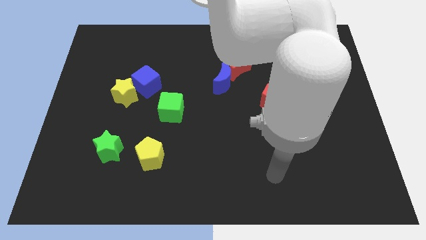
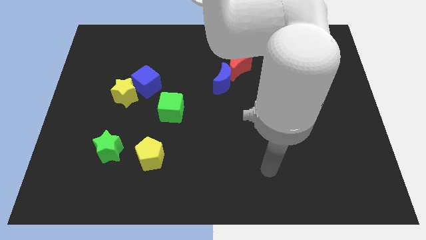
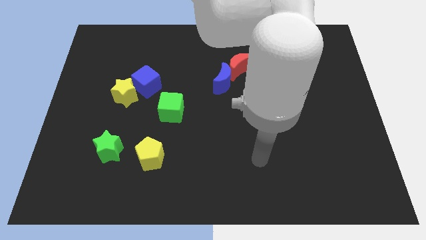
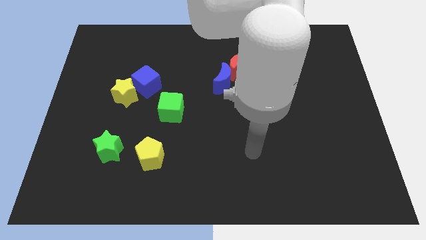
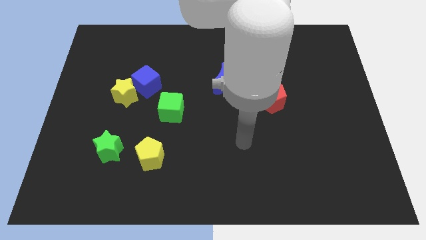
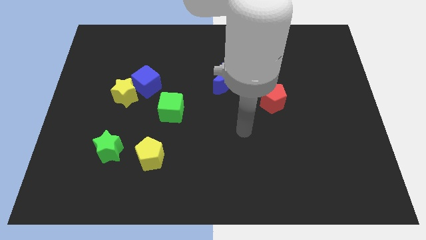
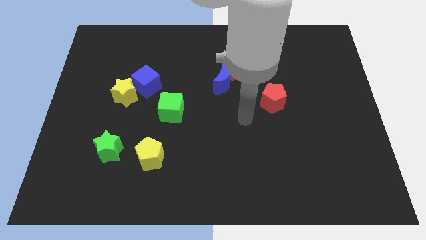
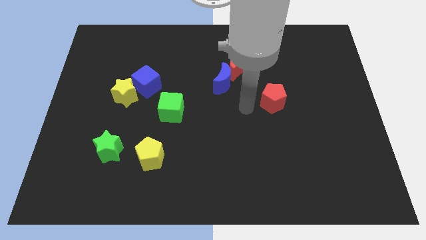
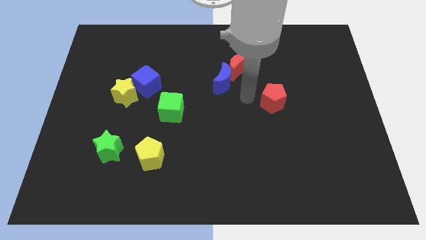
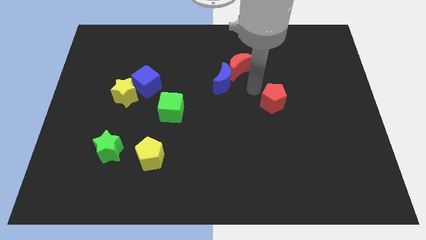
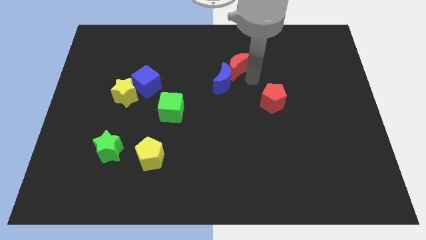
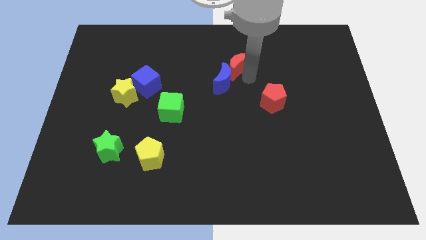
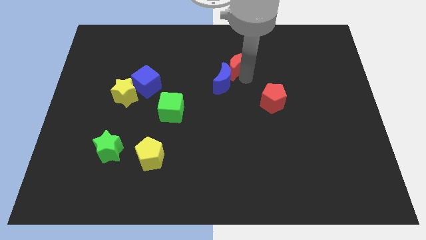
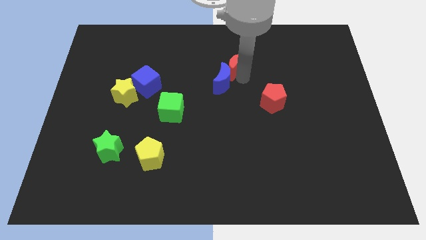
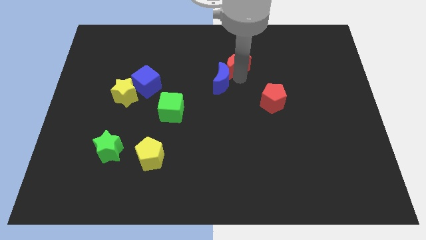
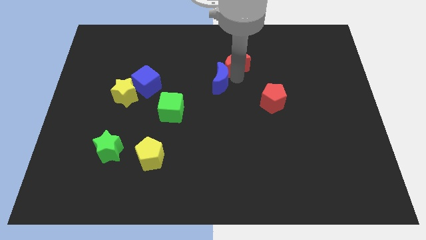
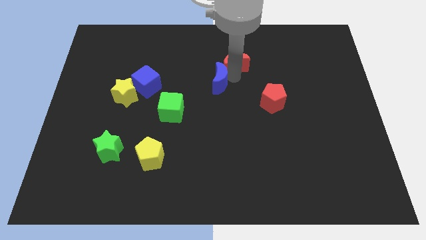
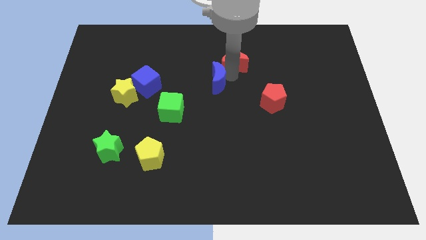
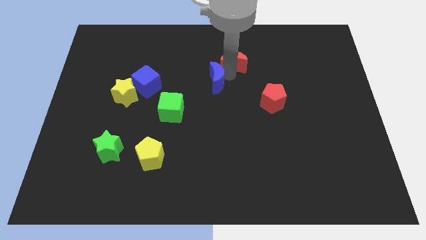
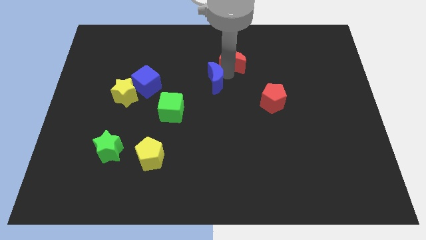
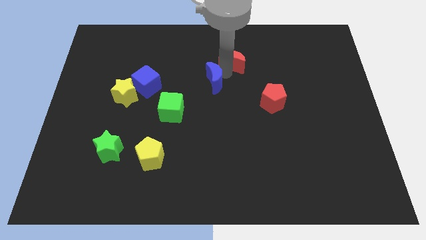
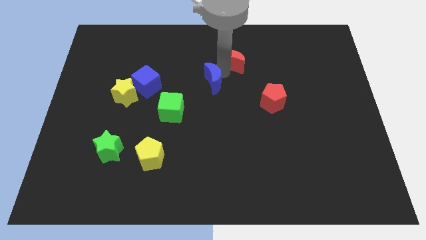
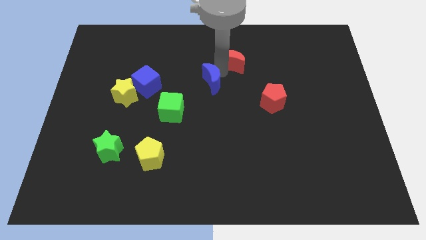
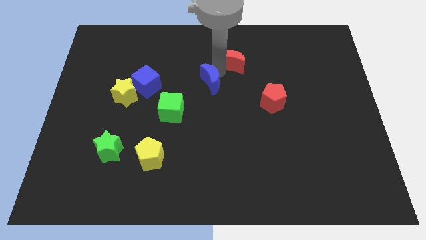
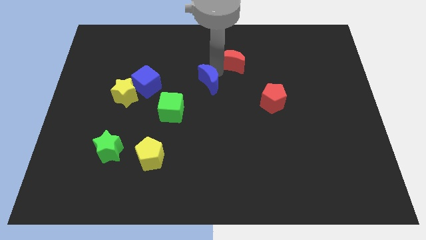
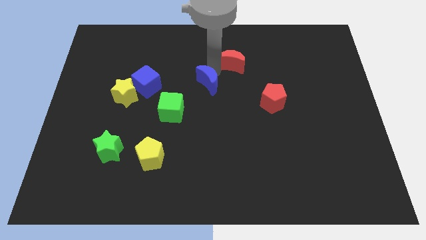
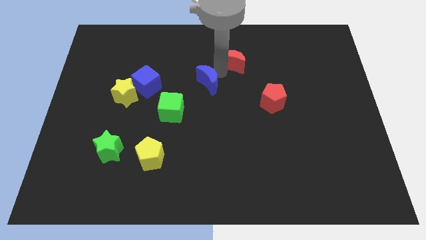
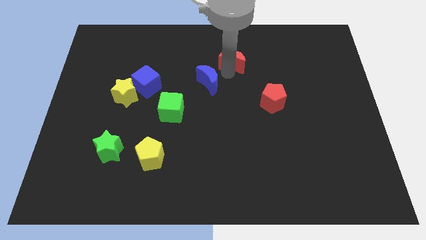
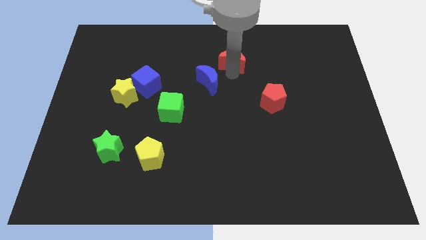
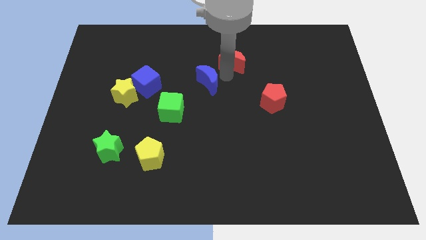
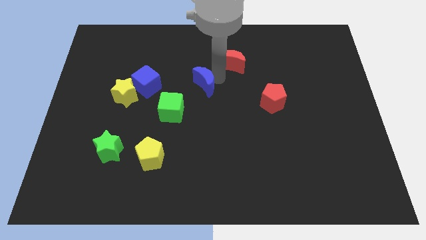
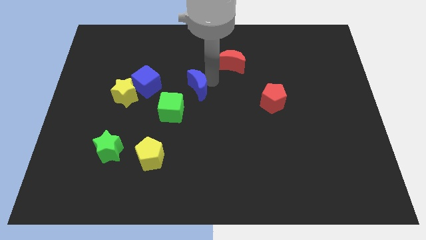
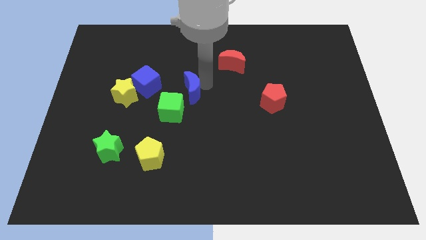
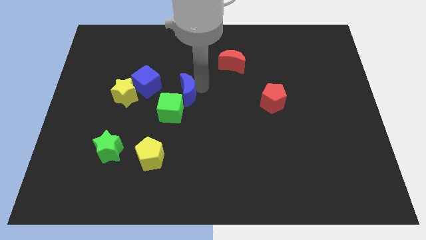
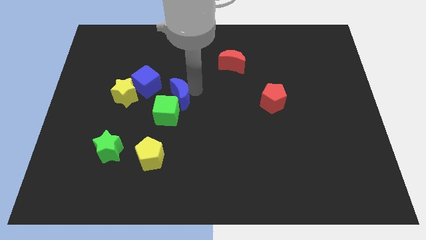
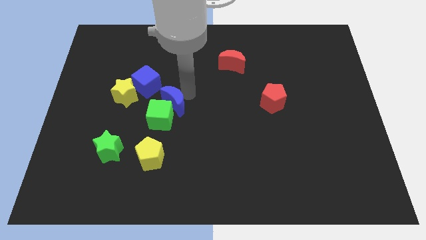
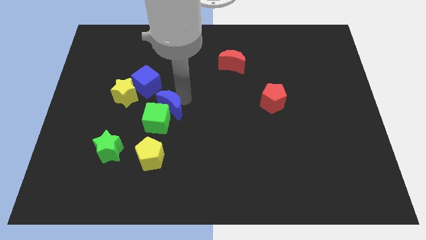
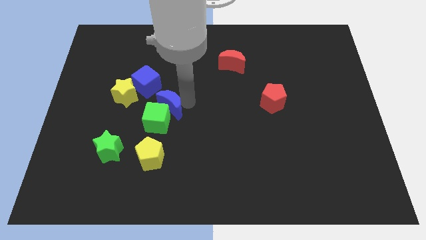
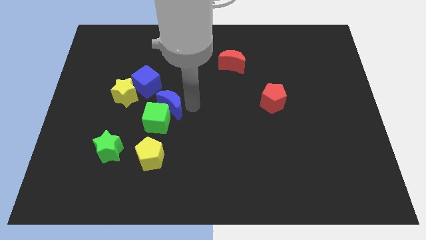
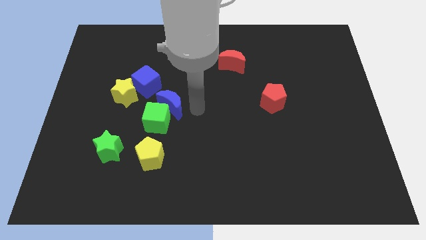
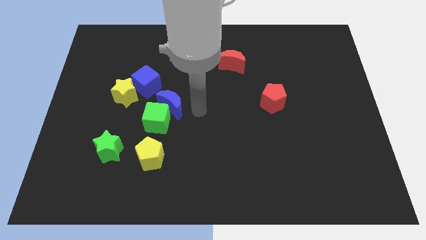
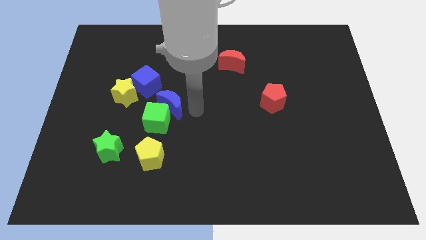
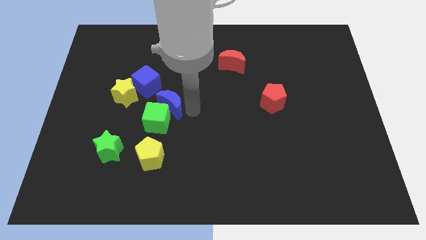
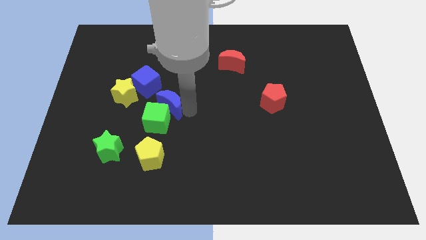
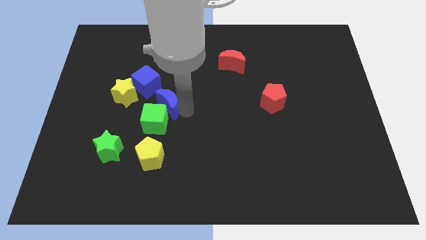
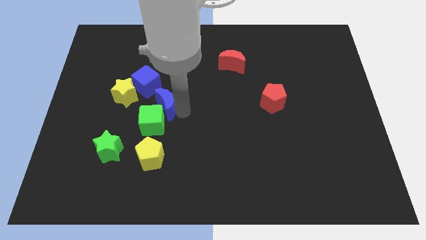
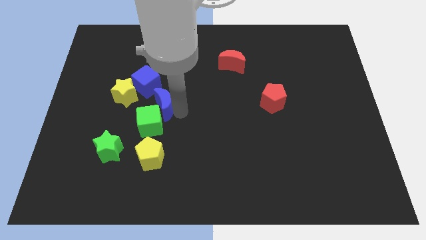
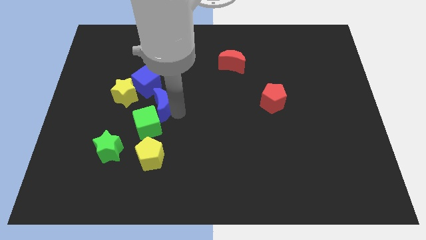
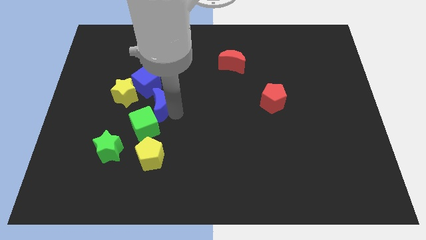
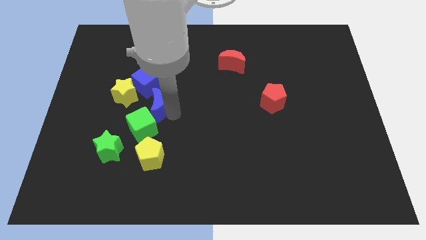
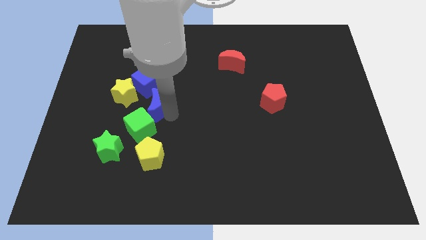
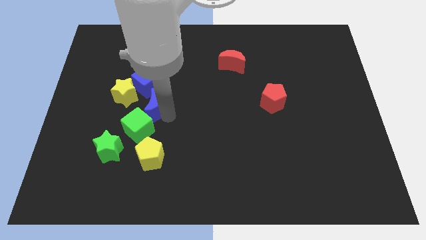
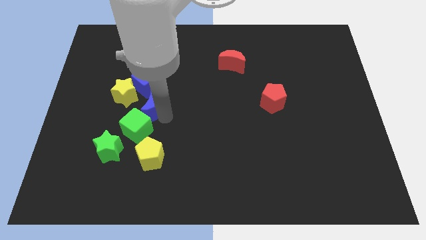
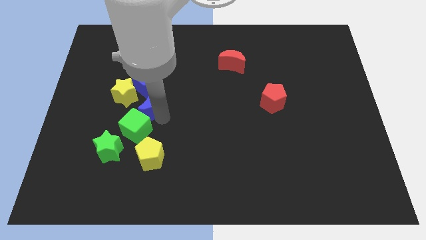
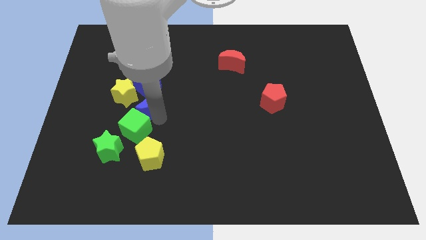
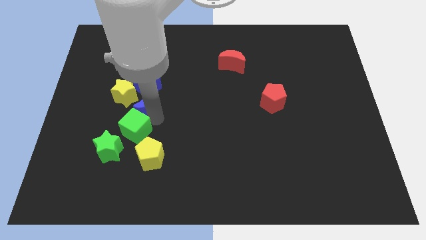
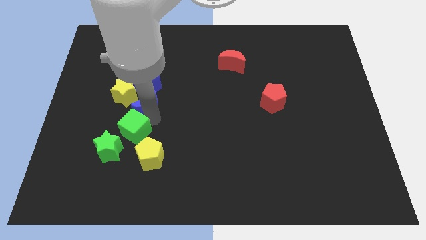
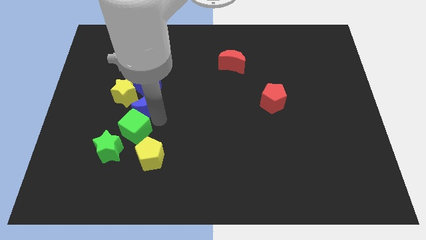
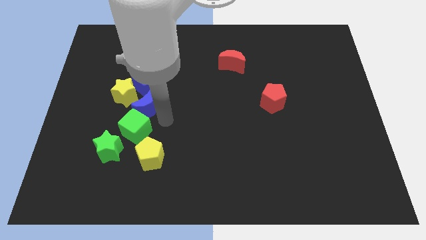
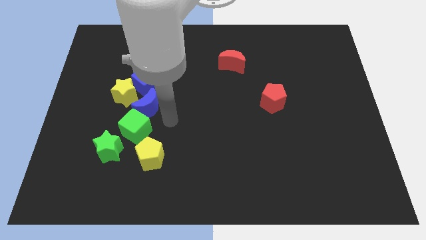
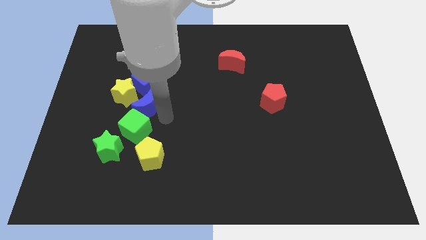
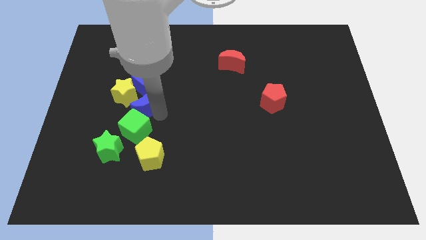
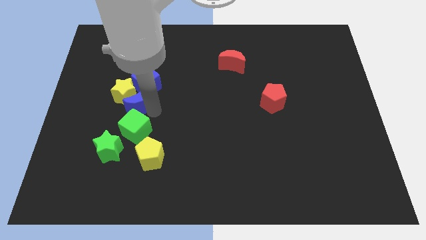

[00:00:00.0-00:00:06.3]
put the blue moon towards the yellow star

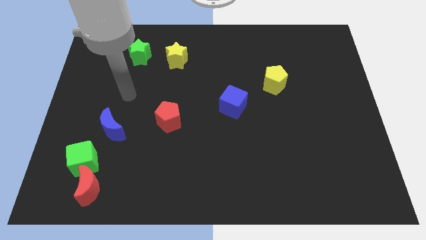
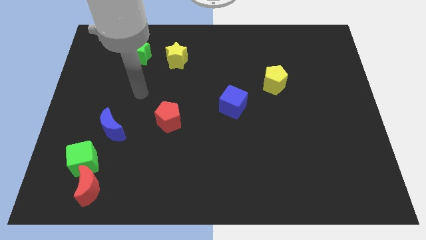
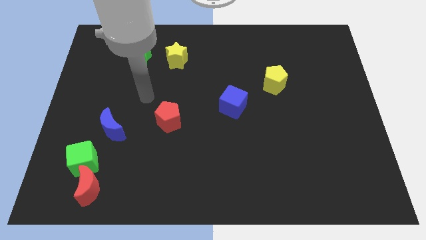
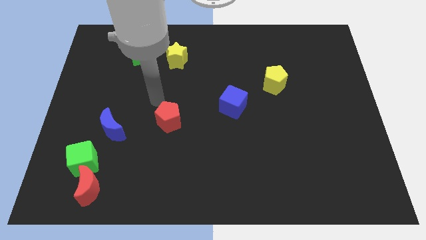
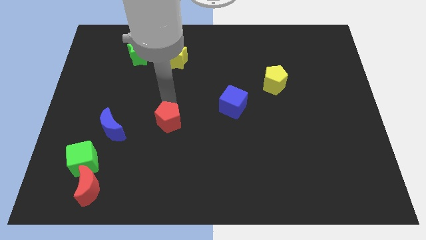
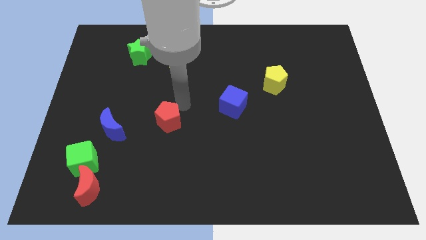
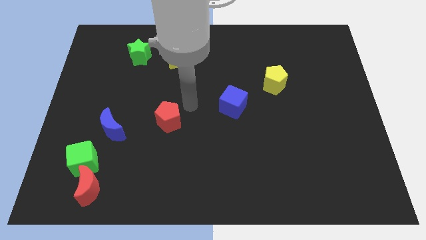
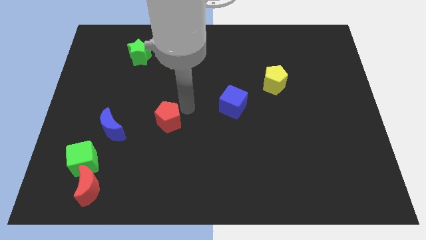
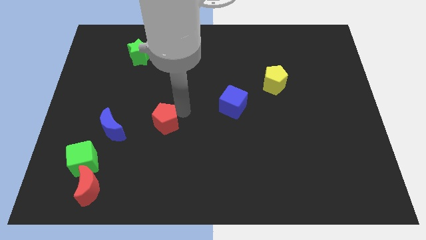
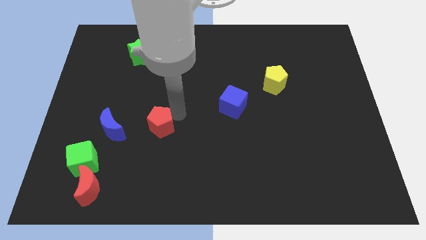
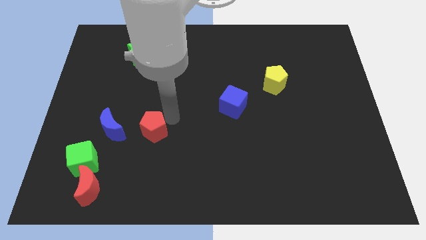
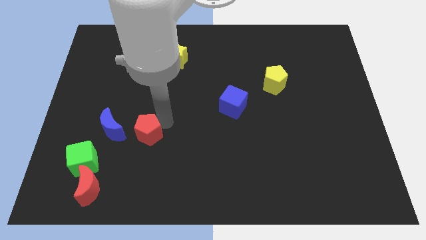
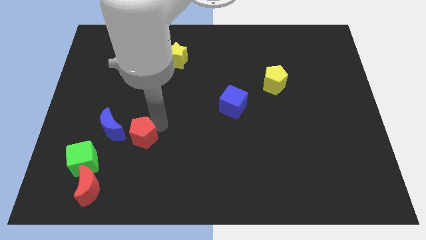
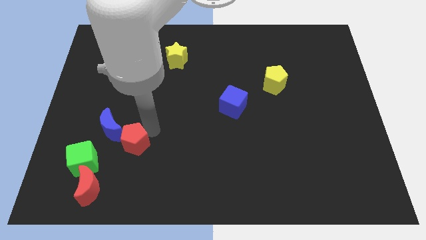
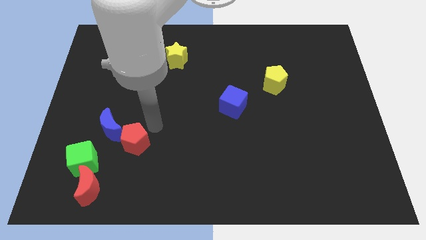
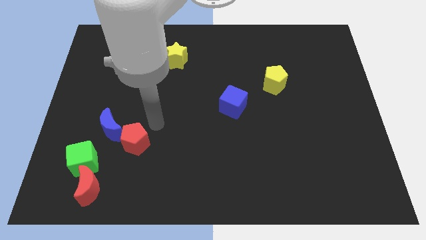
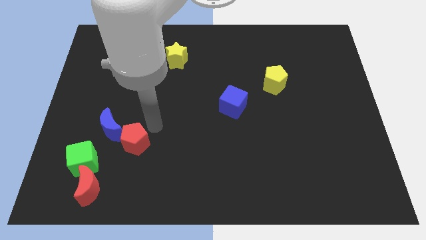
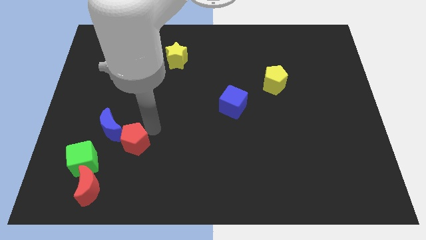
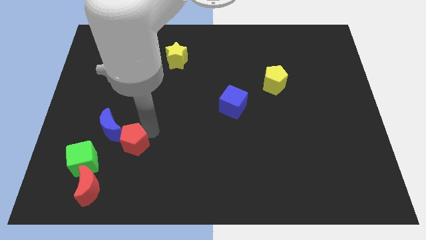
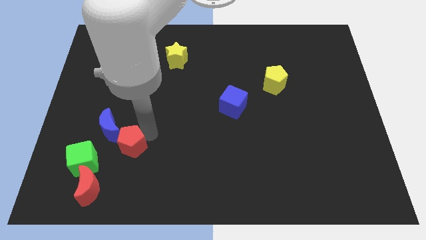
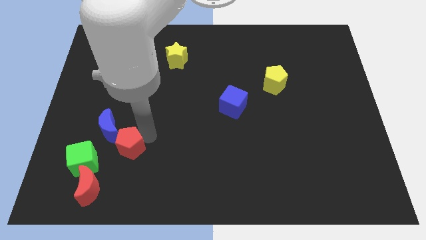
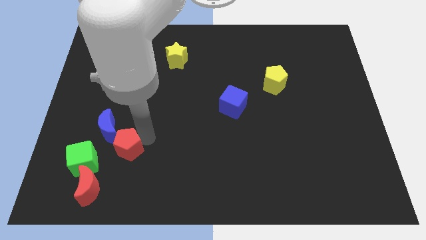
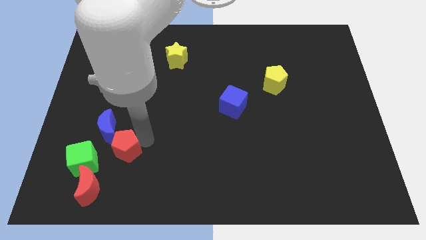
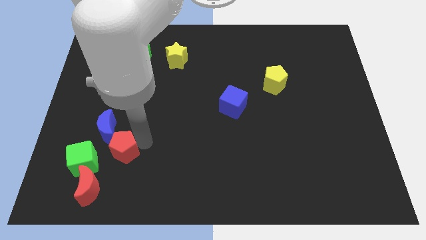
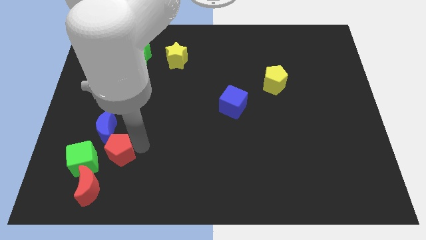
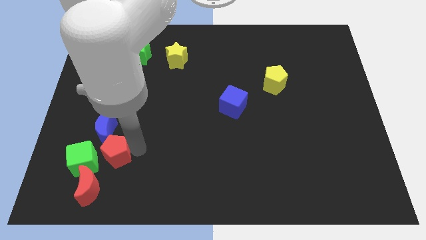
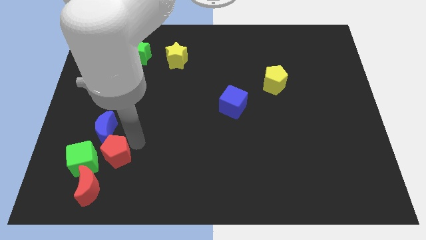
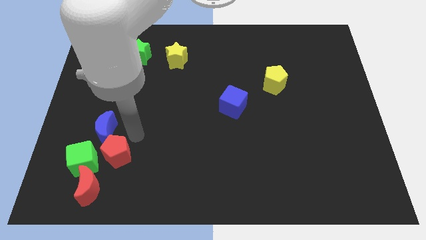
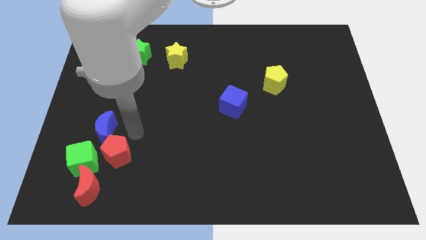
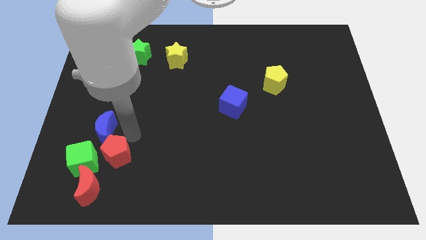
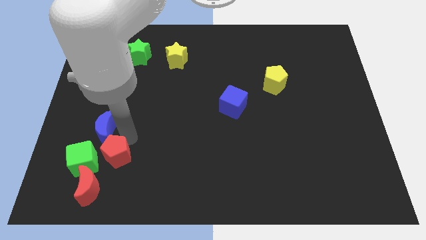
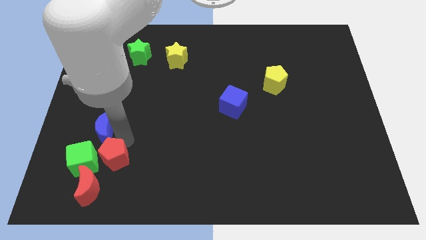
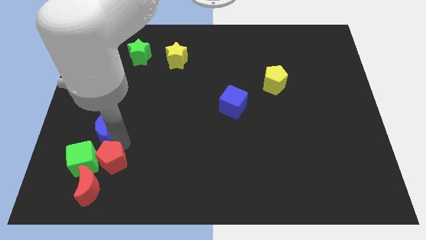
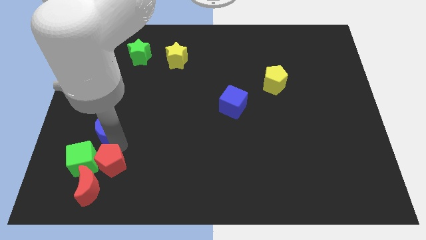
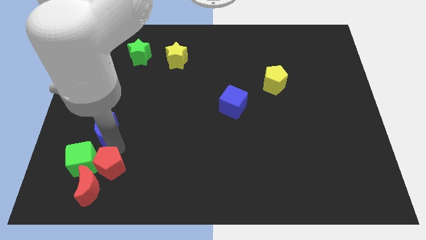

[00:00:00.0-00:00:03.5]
push the red pentagon towards the red moon
